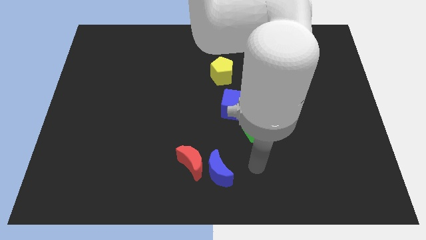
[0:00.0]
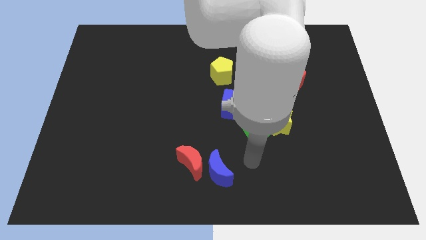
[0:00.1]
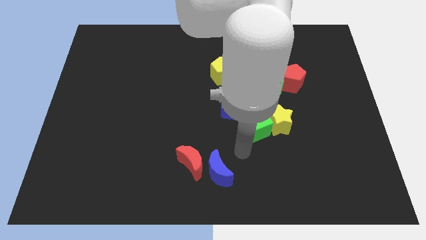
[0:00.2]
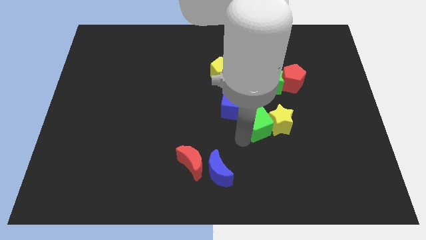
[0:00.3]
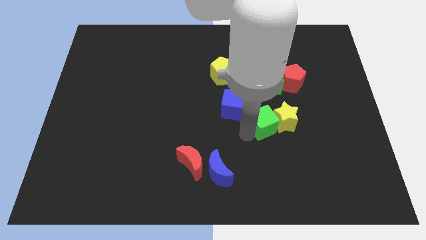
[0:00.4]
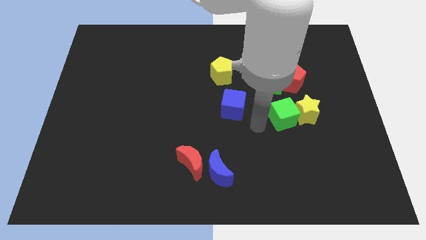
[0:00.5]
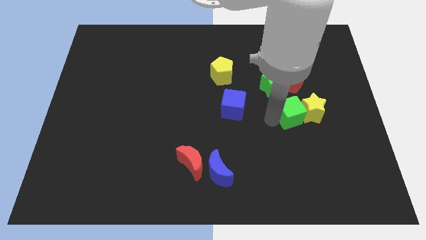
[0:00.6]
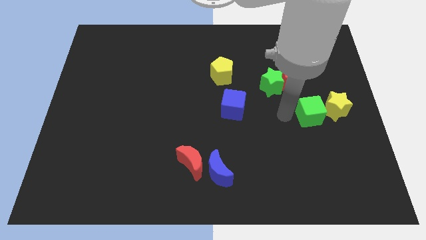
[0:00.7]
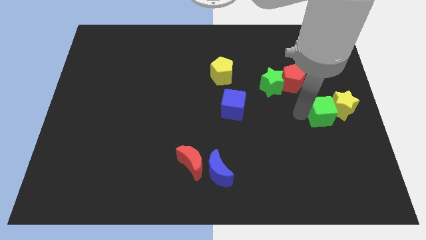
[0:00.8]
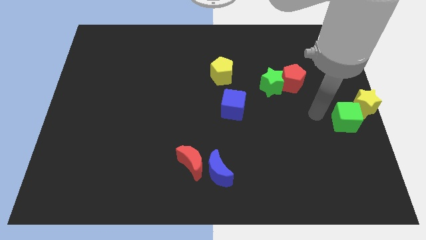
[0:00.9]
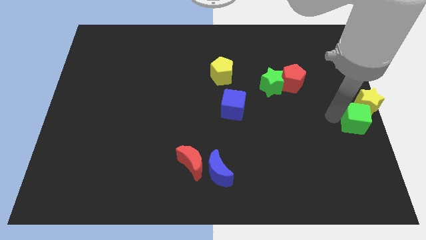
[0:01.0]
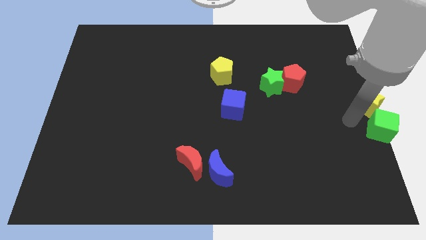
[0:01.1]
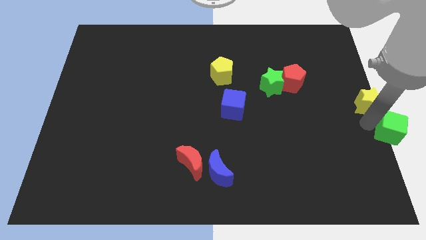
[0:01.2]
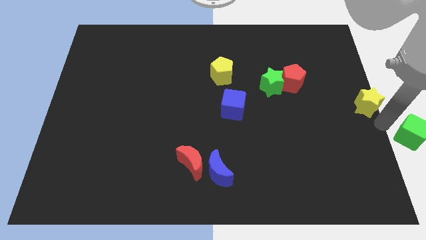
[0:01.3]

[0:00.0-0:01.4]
pull the yellow star apart from the green cube

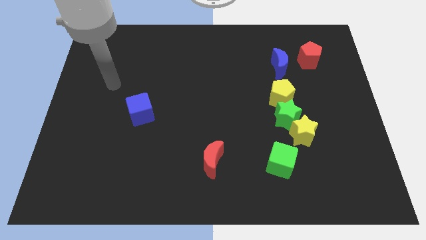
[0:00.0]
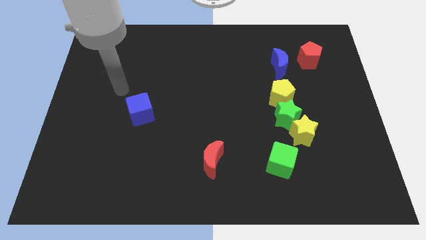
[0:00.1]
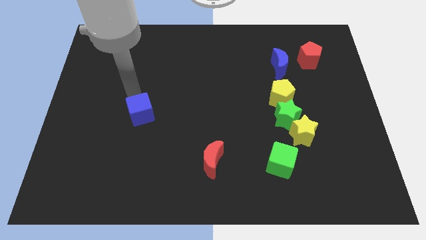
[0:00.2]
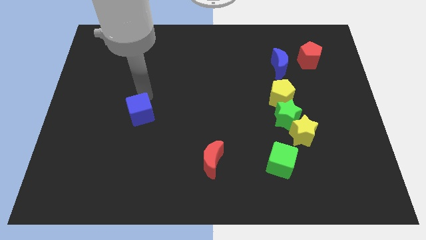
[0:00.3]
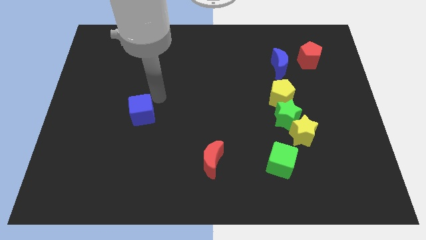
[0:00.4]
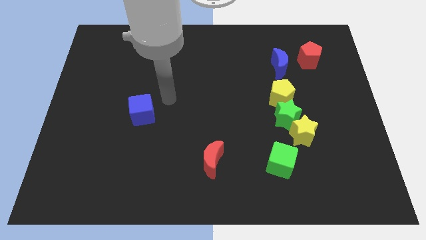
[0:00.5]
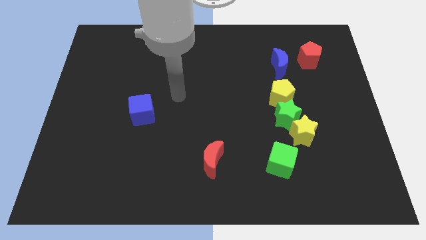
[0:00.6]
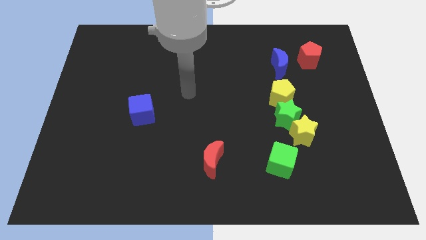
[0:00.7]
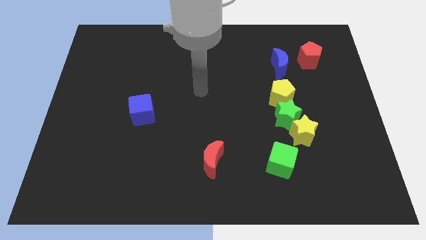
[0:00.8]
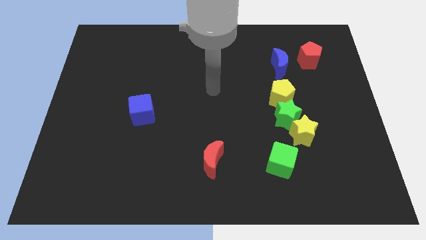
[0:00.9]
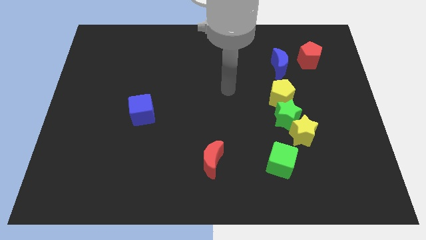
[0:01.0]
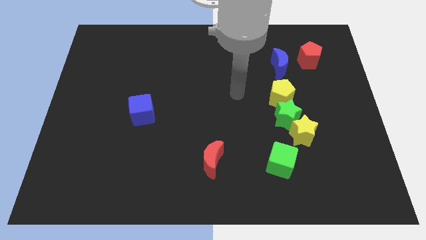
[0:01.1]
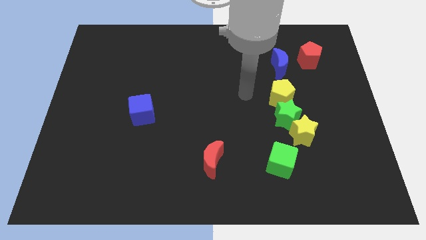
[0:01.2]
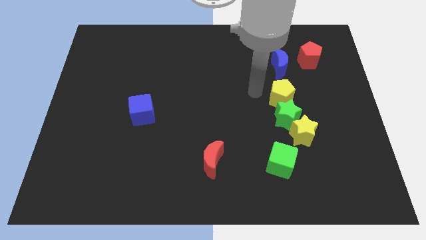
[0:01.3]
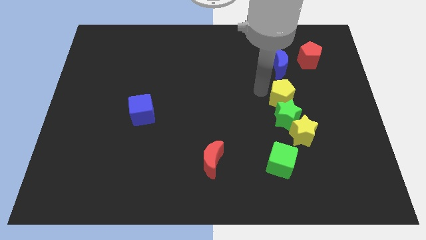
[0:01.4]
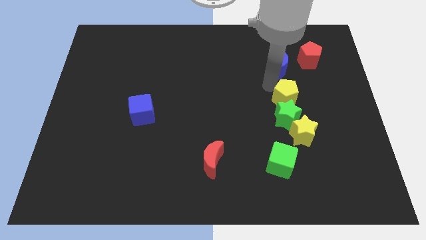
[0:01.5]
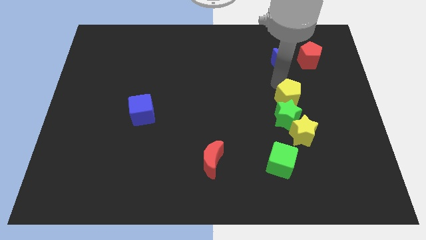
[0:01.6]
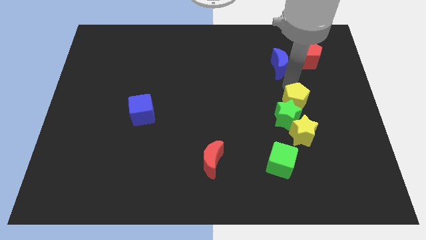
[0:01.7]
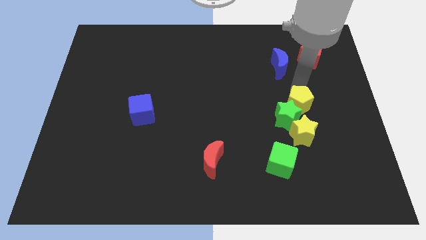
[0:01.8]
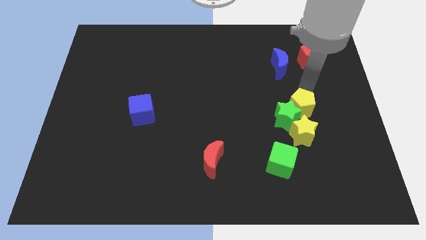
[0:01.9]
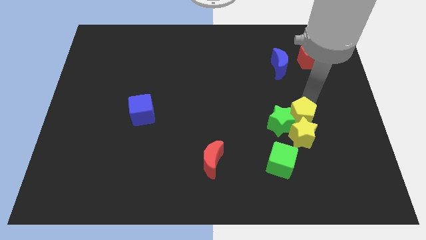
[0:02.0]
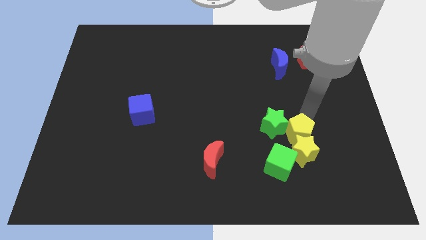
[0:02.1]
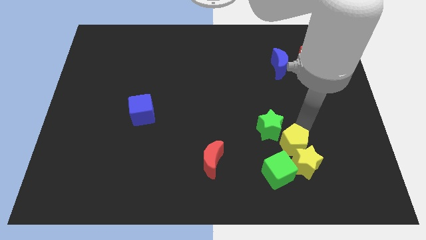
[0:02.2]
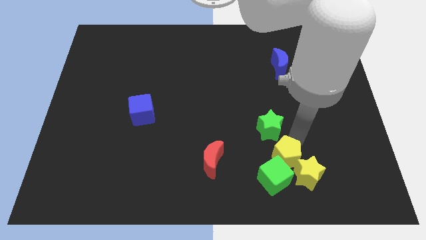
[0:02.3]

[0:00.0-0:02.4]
separate the green star from the yellow star and yellow pentagon

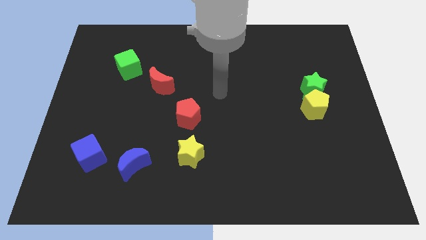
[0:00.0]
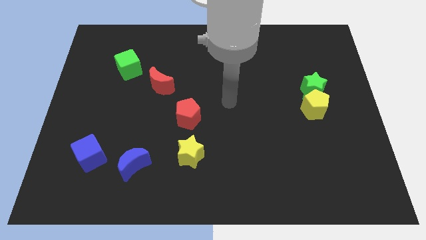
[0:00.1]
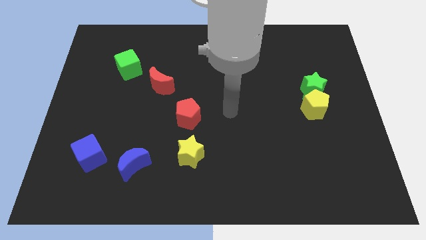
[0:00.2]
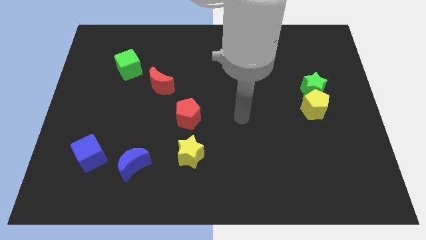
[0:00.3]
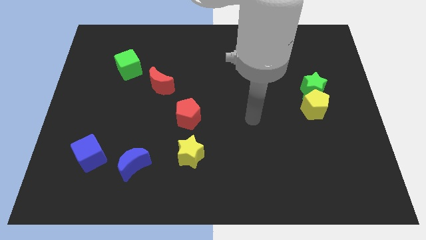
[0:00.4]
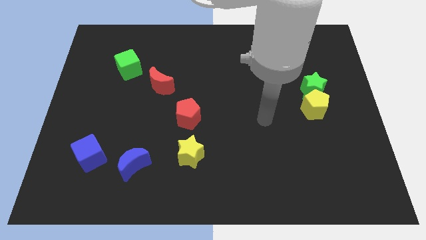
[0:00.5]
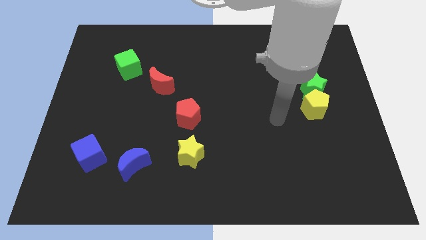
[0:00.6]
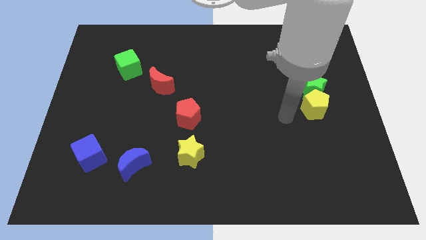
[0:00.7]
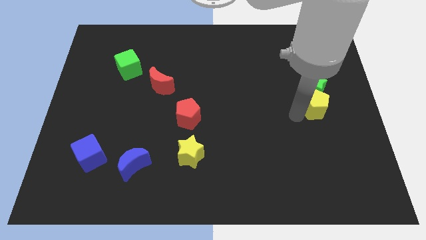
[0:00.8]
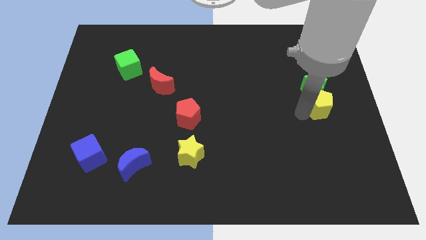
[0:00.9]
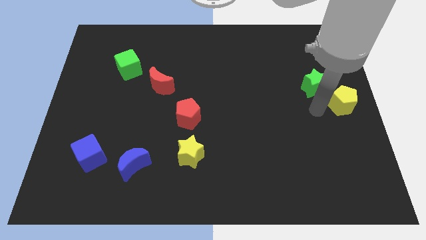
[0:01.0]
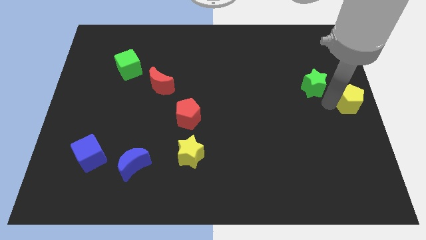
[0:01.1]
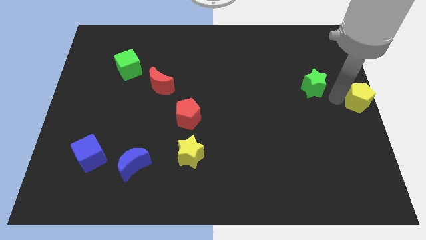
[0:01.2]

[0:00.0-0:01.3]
pull the green star apart from the yellow pentagon

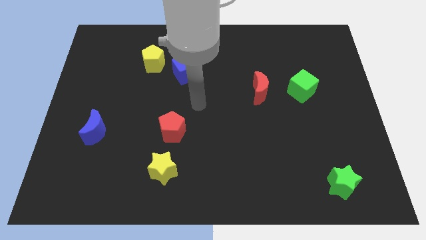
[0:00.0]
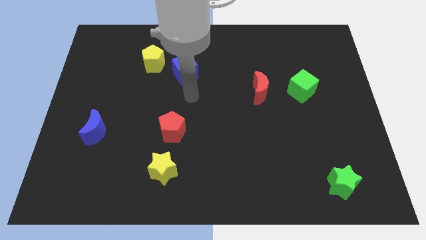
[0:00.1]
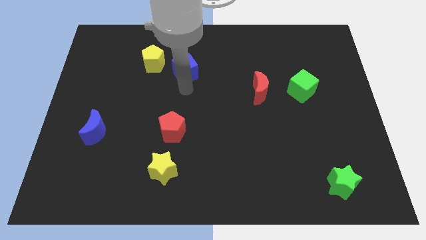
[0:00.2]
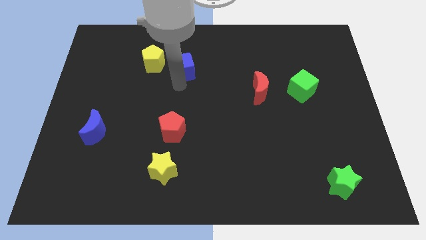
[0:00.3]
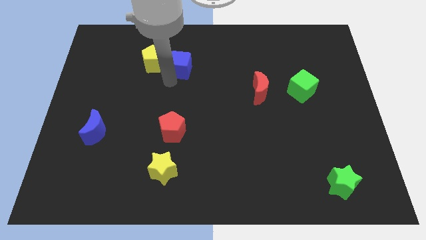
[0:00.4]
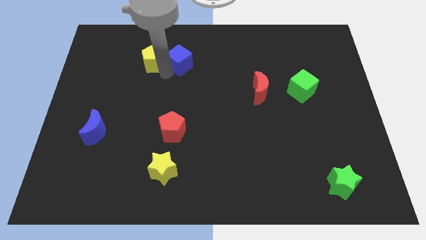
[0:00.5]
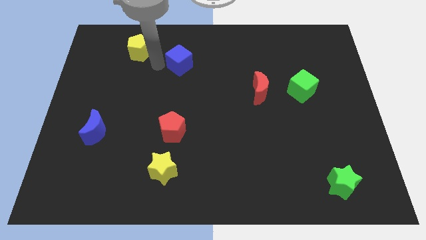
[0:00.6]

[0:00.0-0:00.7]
move the blue cube away from the yellow pentagon

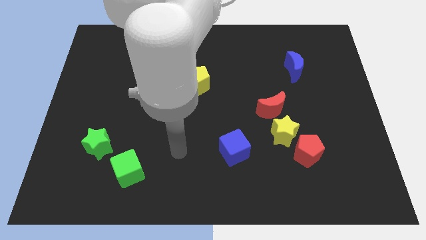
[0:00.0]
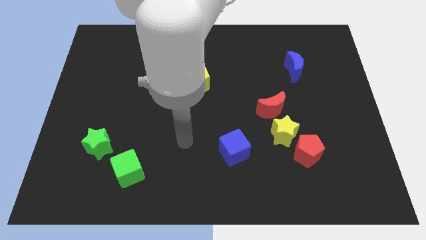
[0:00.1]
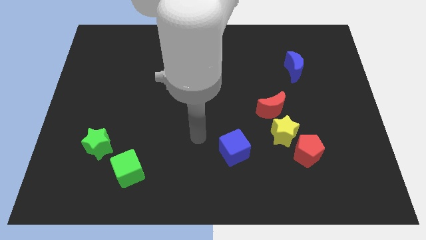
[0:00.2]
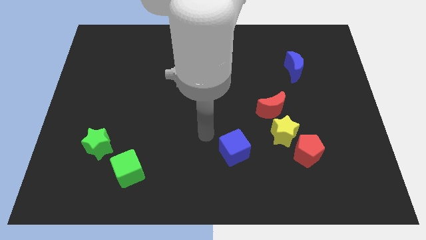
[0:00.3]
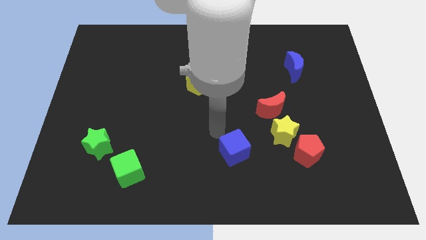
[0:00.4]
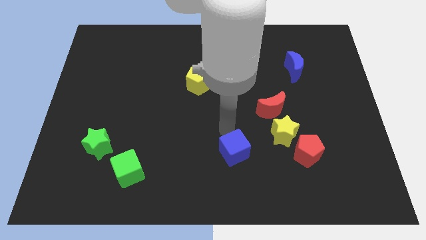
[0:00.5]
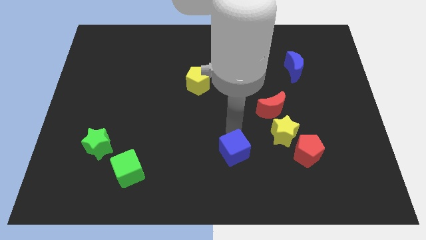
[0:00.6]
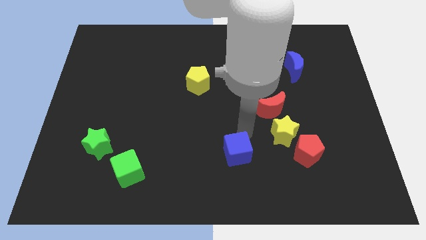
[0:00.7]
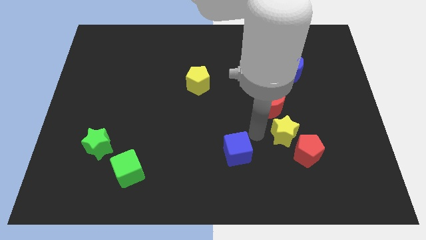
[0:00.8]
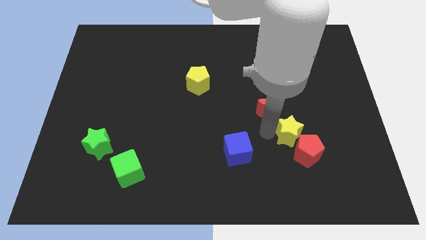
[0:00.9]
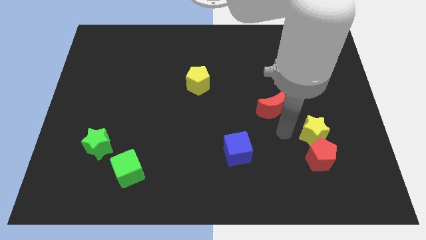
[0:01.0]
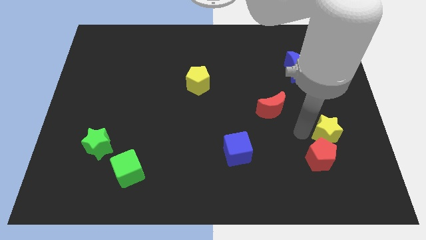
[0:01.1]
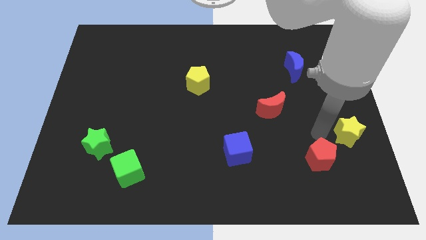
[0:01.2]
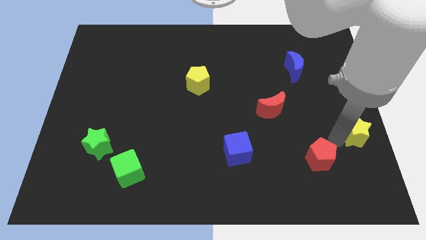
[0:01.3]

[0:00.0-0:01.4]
separate the red pentagon from the yellow star

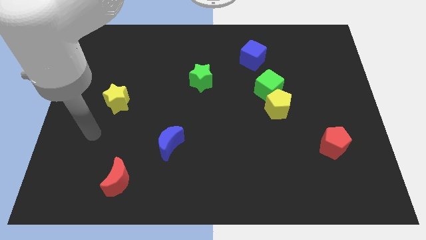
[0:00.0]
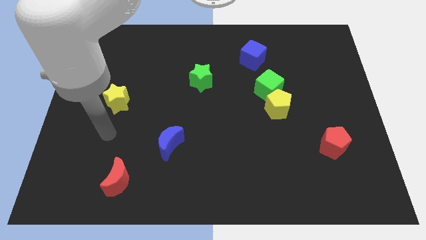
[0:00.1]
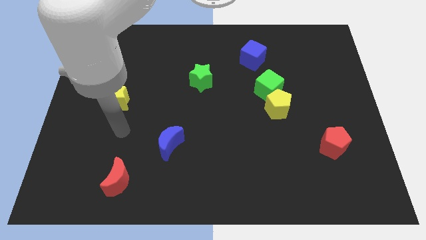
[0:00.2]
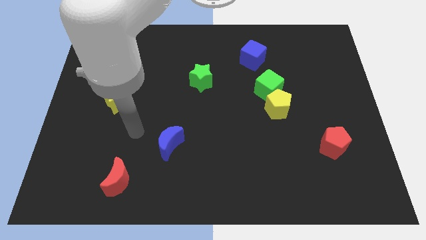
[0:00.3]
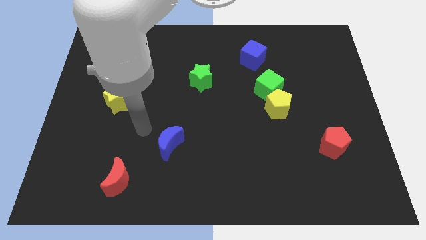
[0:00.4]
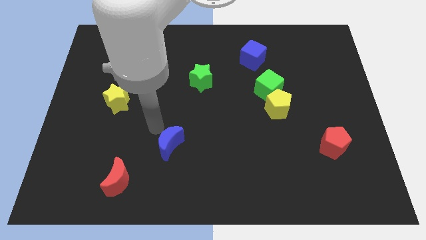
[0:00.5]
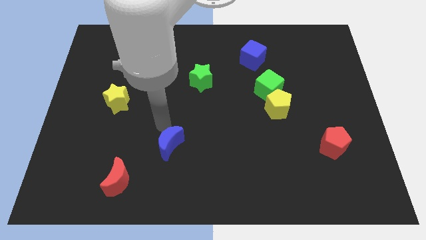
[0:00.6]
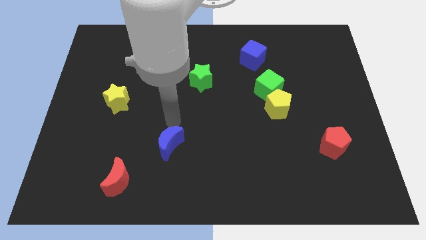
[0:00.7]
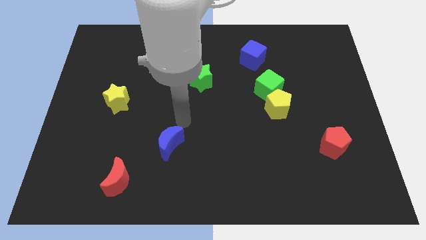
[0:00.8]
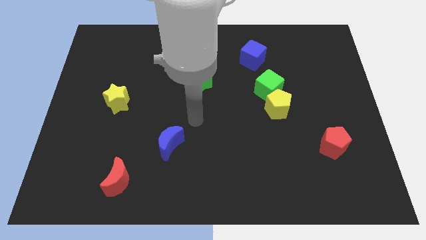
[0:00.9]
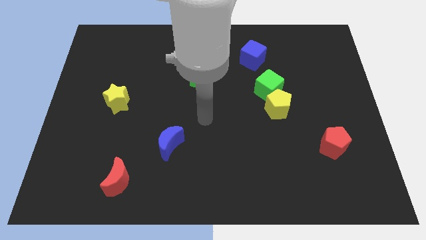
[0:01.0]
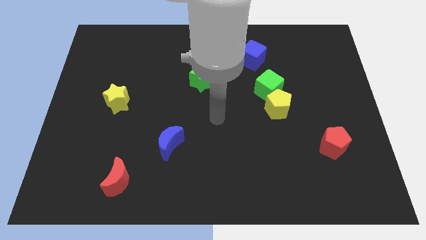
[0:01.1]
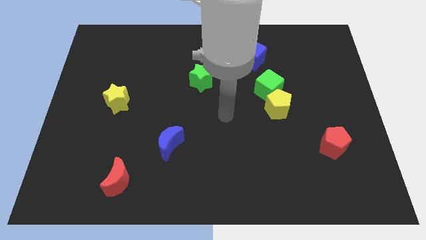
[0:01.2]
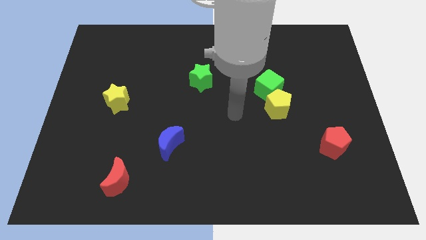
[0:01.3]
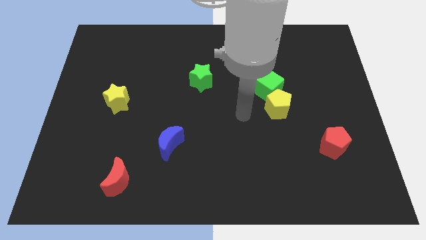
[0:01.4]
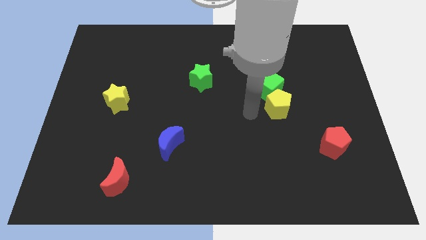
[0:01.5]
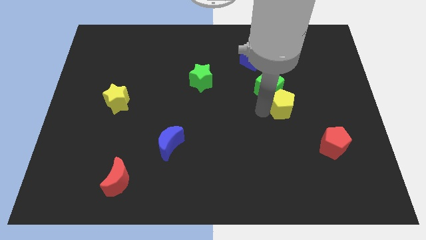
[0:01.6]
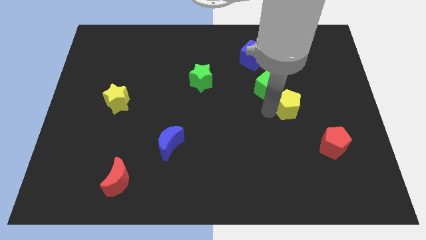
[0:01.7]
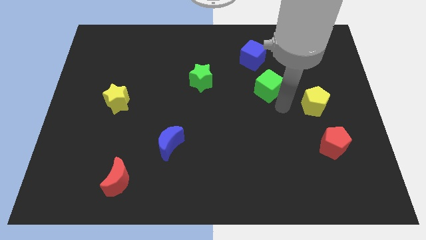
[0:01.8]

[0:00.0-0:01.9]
pull the green cube apart from the yellow pentagon

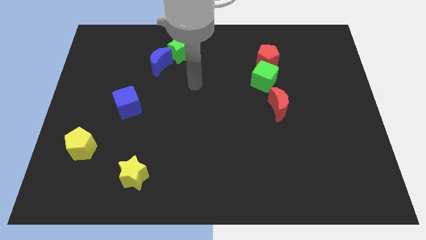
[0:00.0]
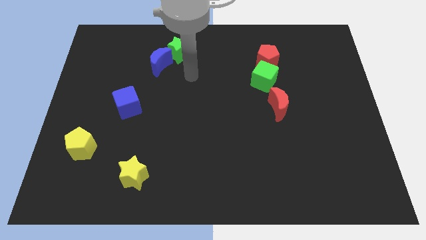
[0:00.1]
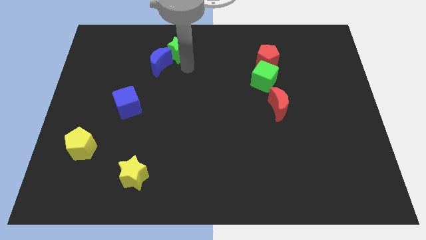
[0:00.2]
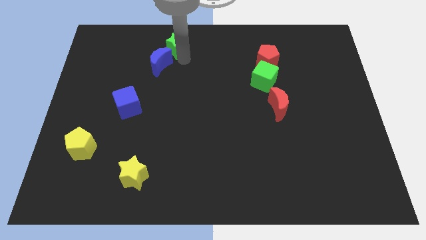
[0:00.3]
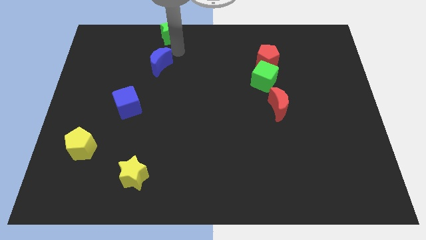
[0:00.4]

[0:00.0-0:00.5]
separate the blue moon from the green star
